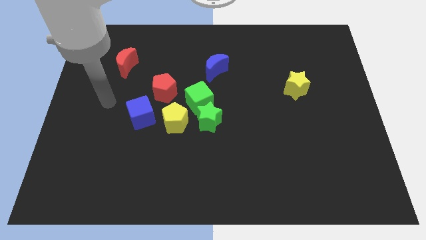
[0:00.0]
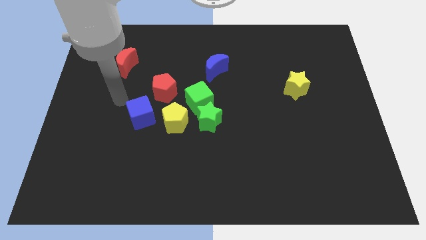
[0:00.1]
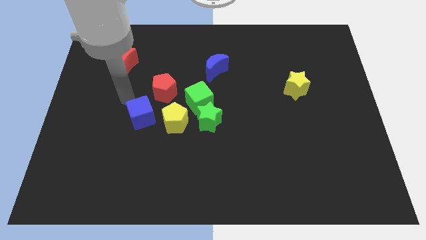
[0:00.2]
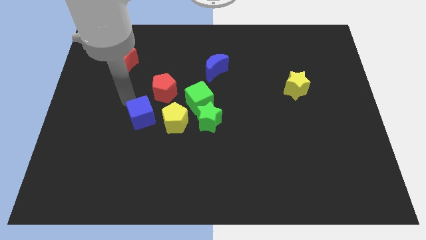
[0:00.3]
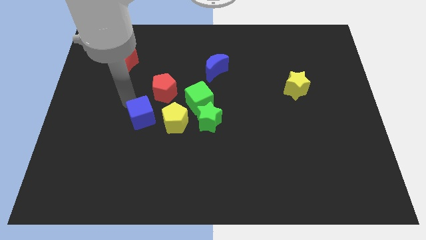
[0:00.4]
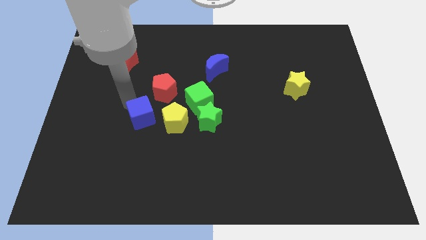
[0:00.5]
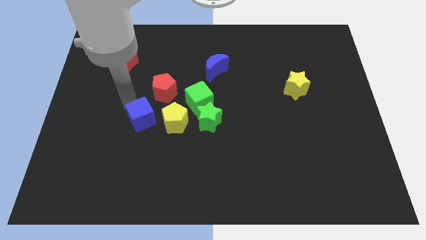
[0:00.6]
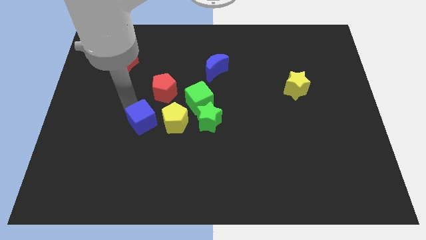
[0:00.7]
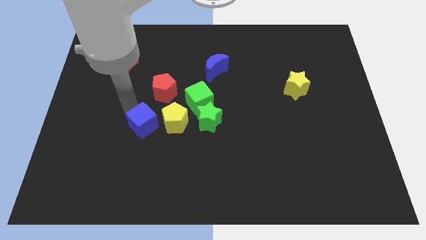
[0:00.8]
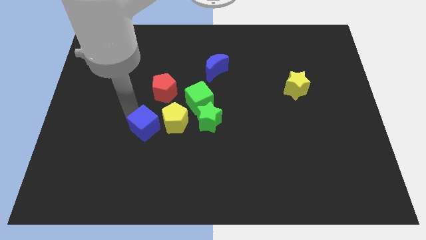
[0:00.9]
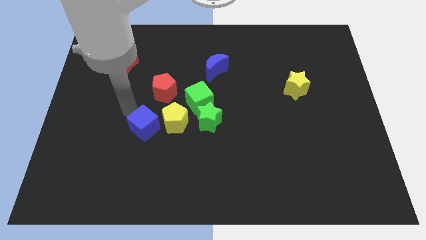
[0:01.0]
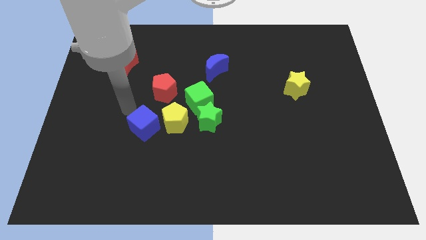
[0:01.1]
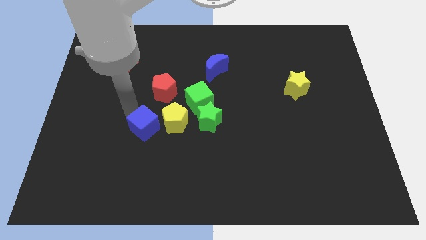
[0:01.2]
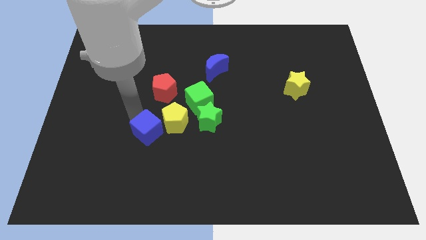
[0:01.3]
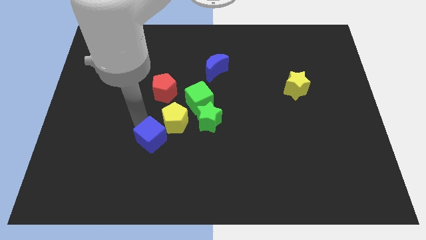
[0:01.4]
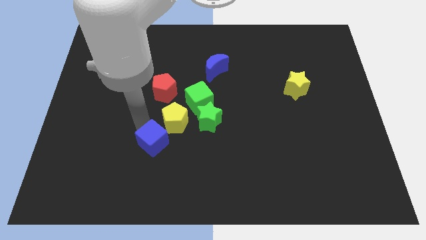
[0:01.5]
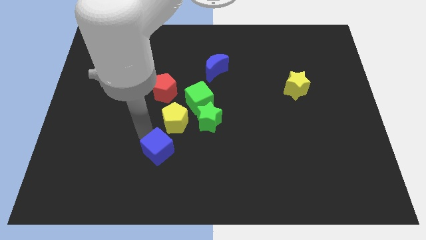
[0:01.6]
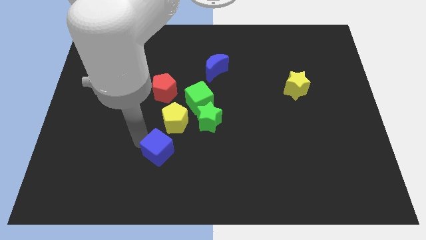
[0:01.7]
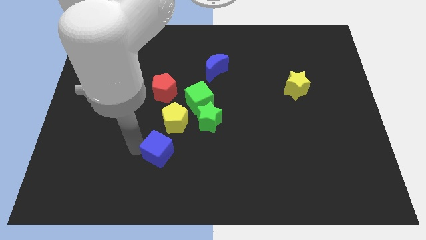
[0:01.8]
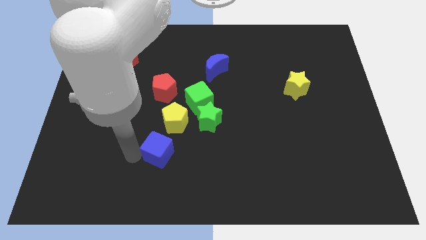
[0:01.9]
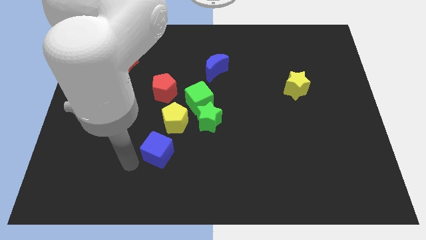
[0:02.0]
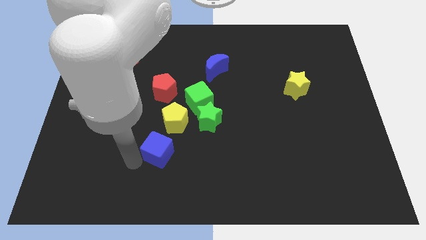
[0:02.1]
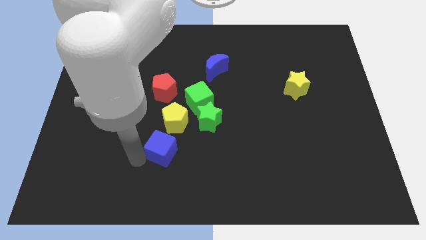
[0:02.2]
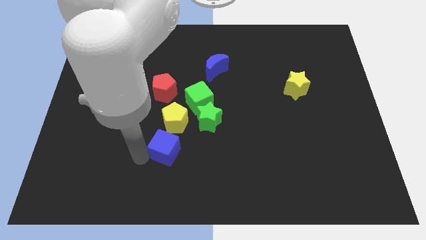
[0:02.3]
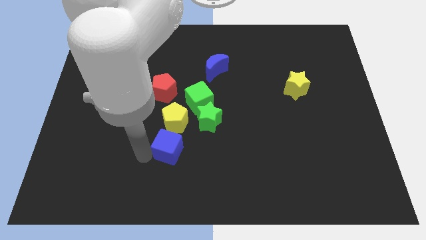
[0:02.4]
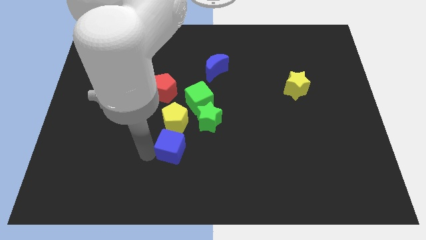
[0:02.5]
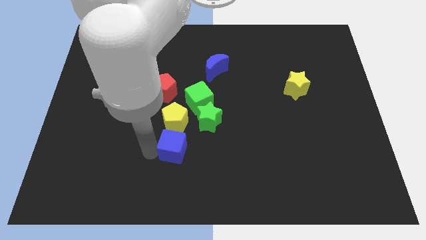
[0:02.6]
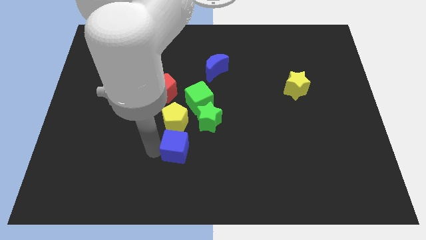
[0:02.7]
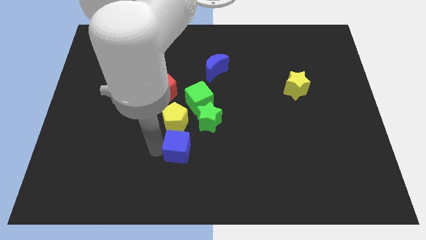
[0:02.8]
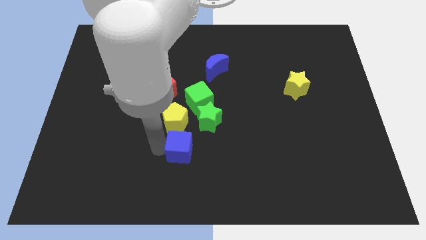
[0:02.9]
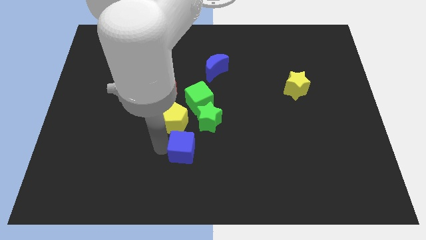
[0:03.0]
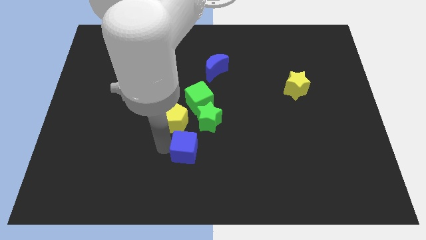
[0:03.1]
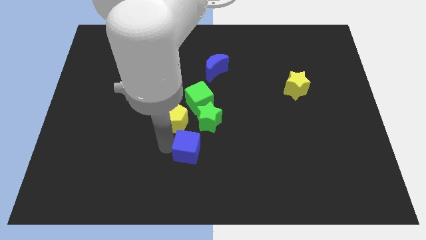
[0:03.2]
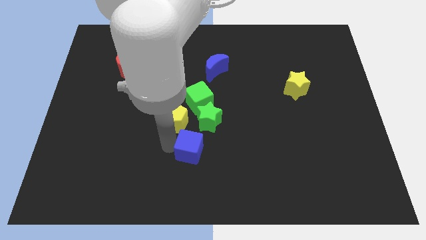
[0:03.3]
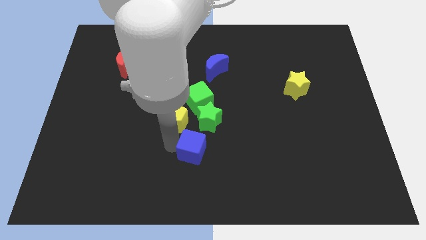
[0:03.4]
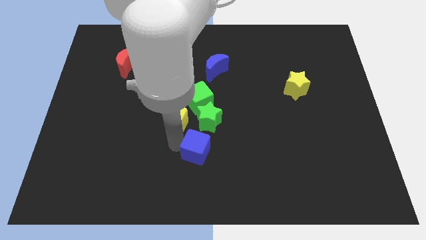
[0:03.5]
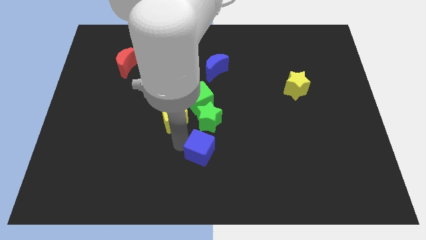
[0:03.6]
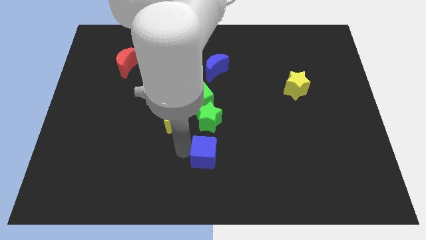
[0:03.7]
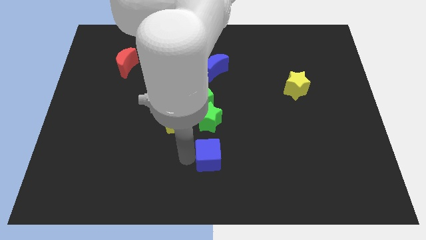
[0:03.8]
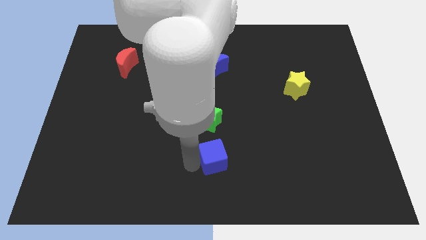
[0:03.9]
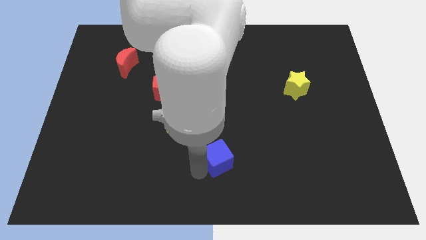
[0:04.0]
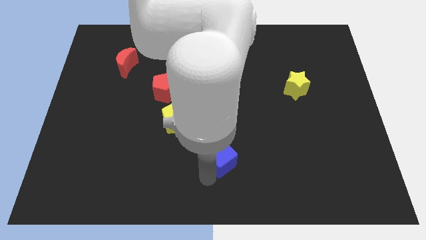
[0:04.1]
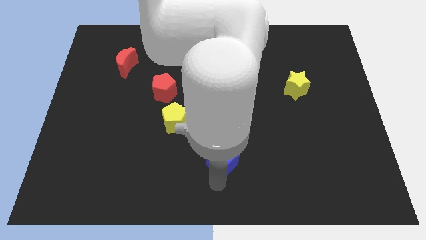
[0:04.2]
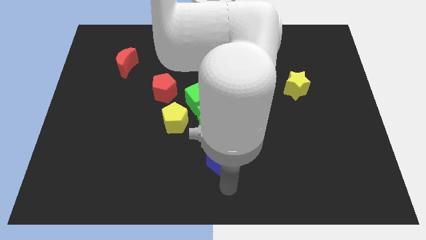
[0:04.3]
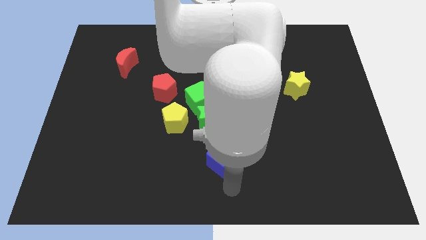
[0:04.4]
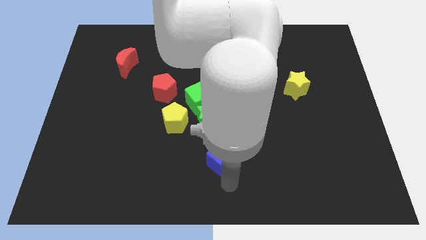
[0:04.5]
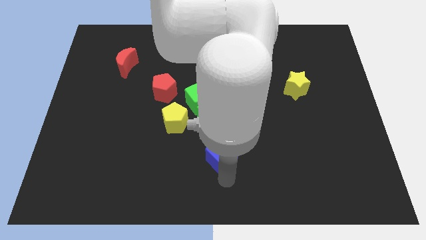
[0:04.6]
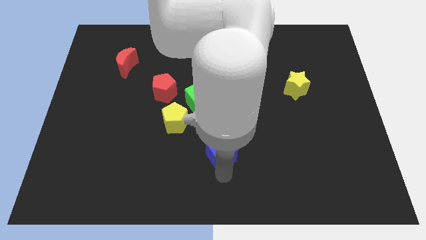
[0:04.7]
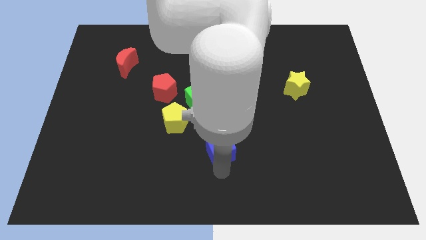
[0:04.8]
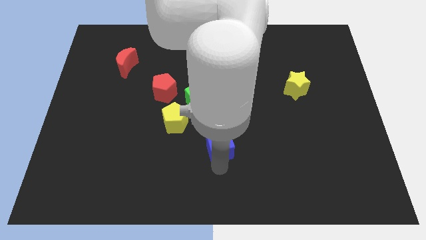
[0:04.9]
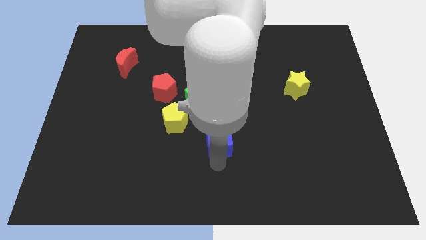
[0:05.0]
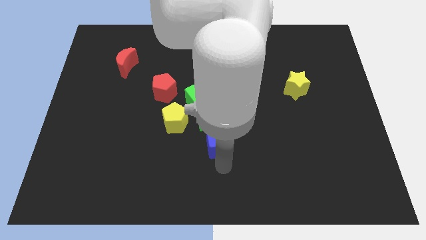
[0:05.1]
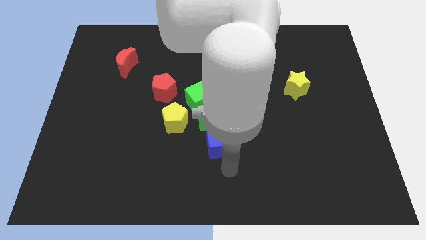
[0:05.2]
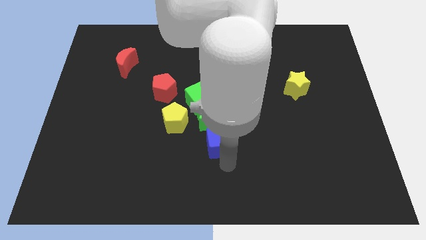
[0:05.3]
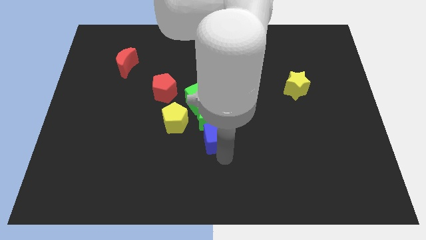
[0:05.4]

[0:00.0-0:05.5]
move the blue cube to the green star

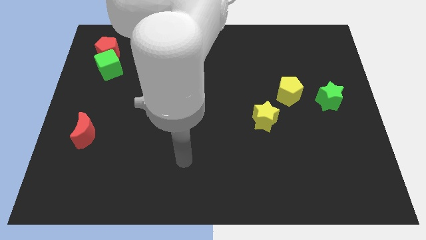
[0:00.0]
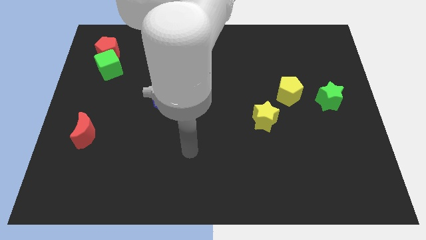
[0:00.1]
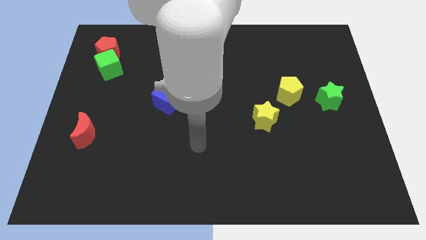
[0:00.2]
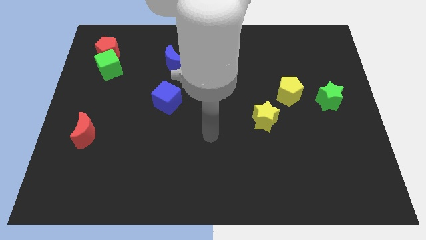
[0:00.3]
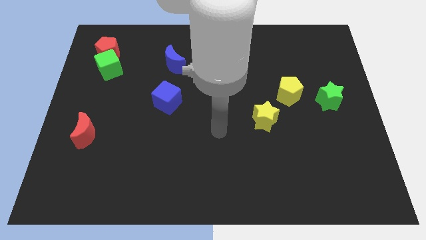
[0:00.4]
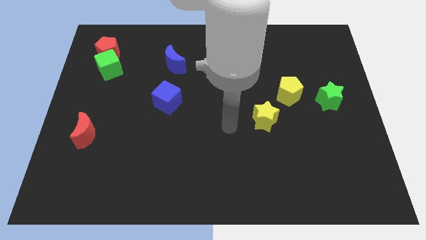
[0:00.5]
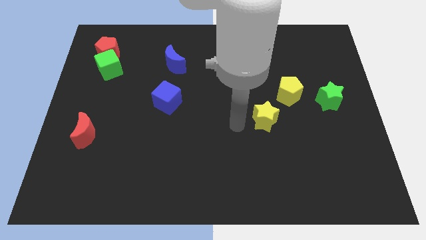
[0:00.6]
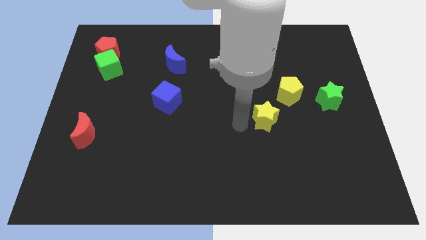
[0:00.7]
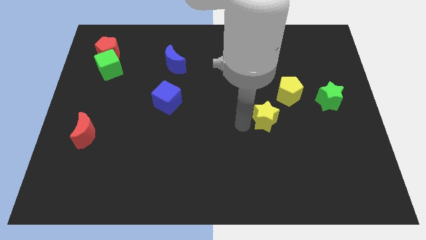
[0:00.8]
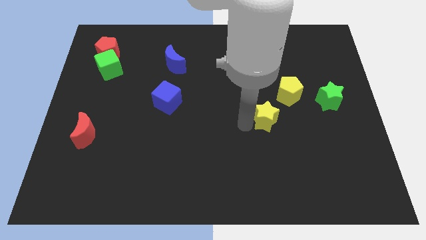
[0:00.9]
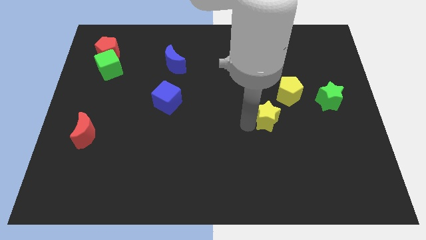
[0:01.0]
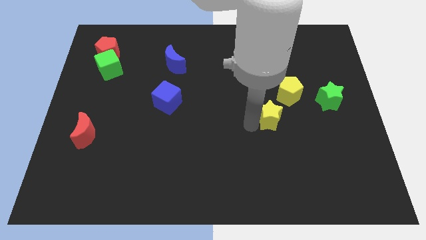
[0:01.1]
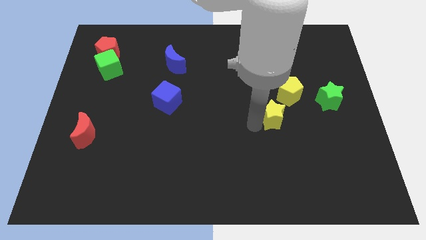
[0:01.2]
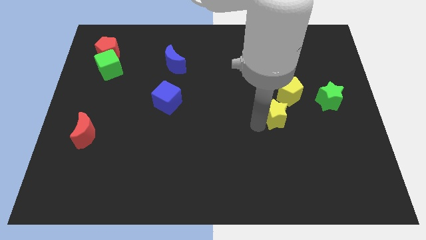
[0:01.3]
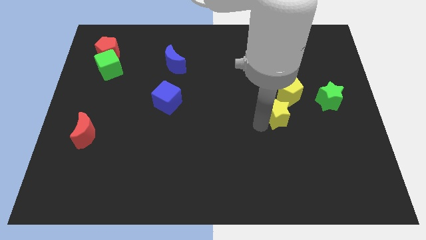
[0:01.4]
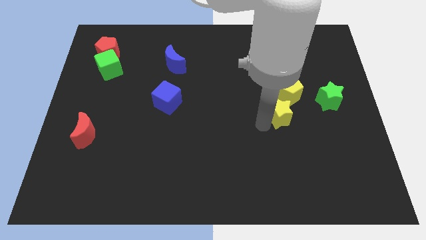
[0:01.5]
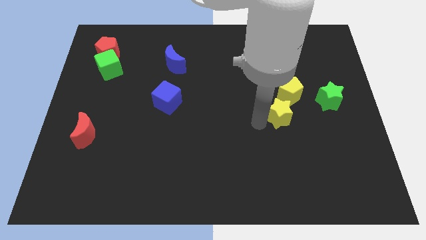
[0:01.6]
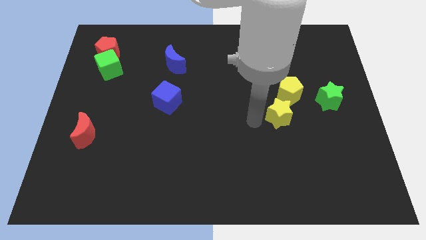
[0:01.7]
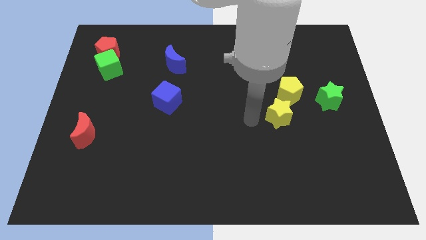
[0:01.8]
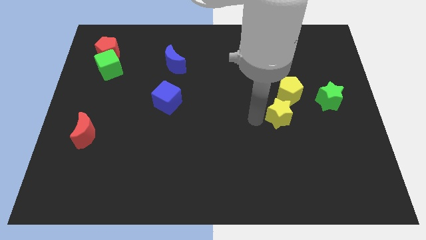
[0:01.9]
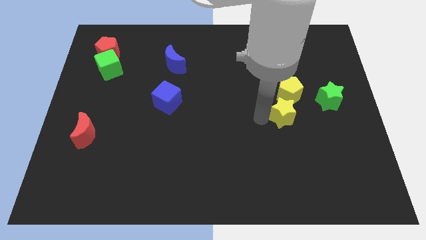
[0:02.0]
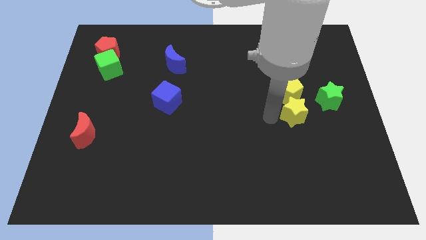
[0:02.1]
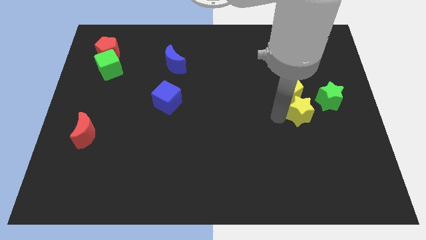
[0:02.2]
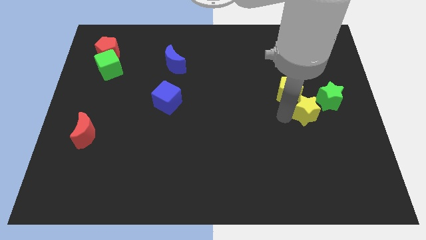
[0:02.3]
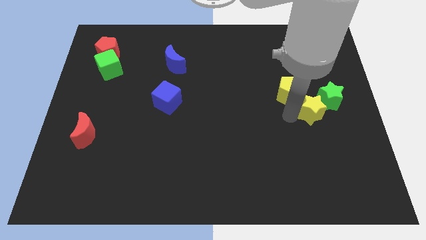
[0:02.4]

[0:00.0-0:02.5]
slide the yellow star towards the green star

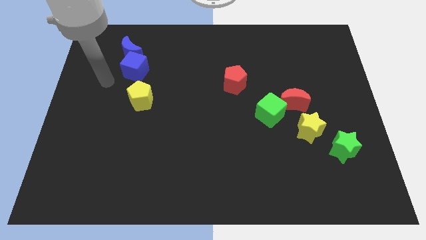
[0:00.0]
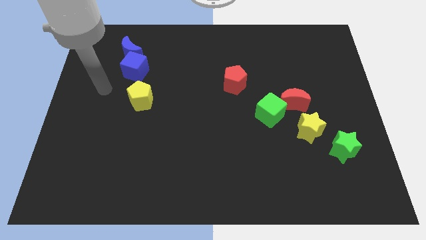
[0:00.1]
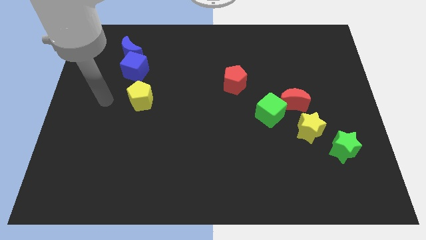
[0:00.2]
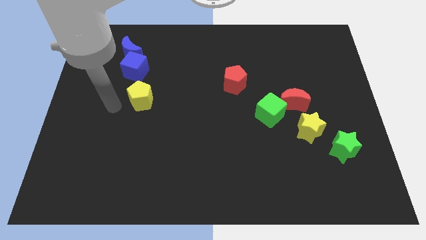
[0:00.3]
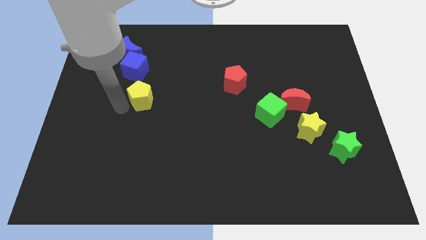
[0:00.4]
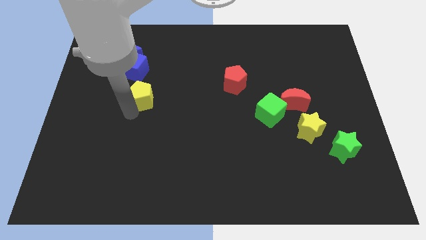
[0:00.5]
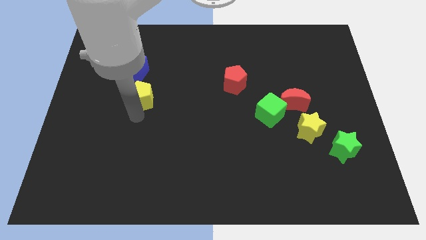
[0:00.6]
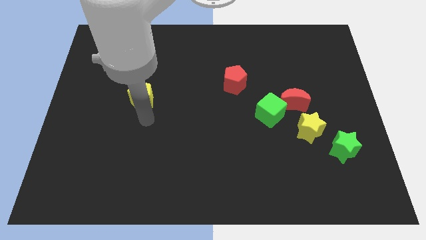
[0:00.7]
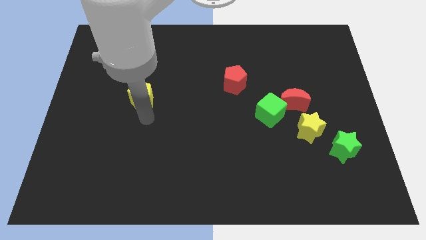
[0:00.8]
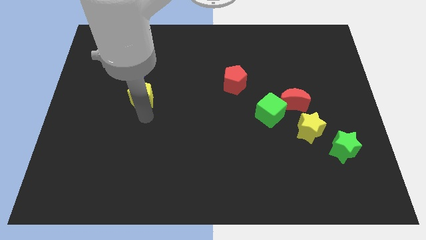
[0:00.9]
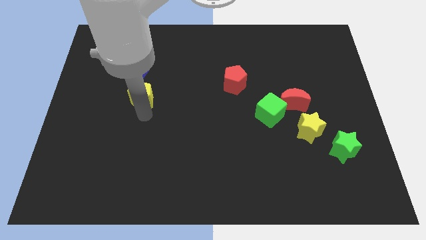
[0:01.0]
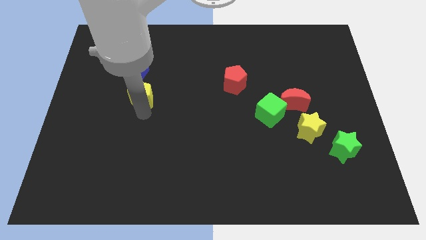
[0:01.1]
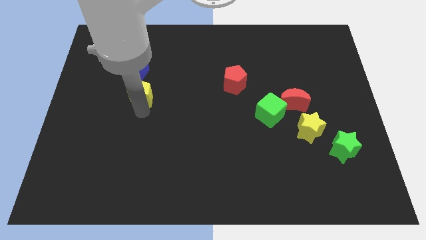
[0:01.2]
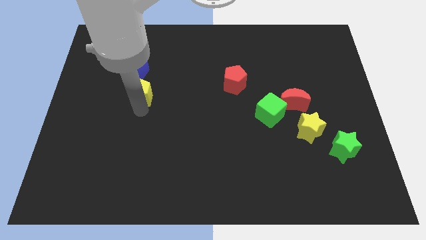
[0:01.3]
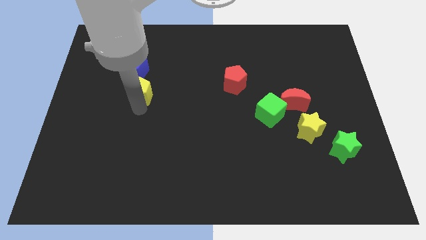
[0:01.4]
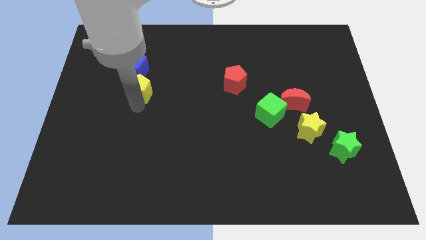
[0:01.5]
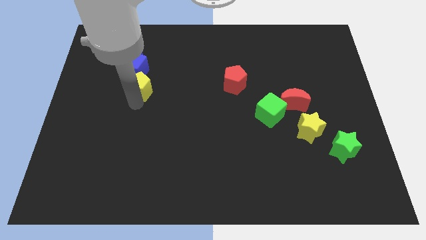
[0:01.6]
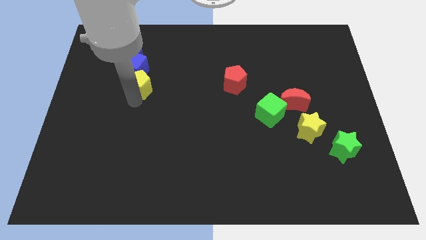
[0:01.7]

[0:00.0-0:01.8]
move the yellow pentagon to the blue cube
